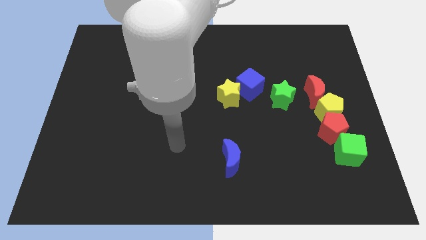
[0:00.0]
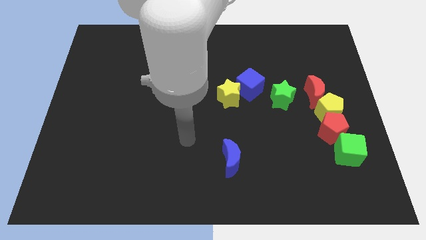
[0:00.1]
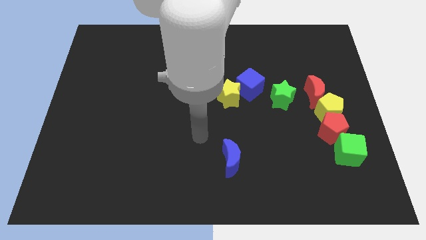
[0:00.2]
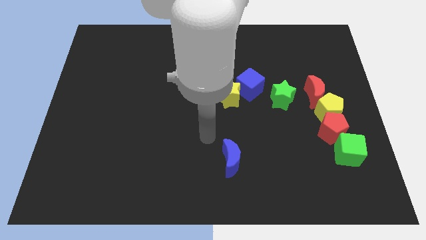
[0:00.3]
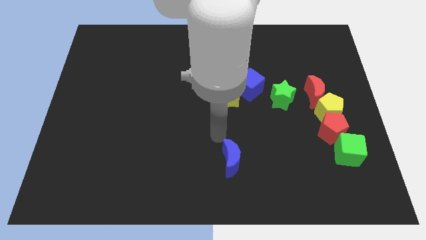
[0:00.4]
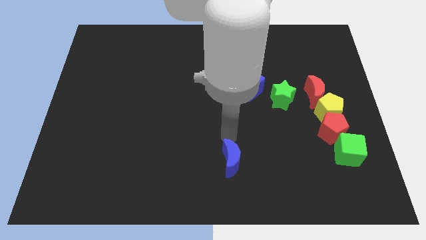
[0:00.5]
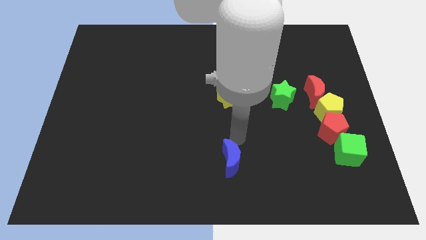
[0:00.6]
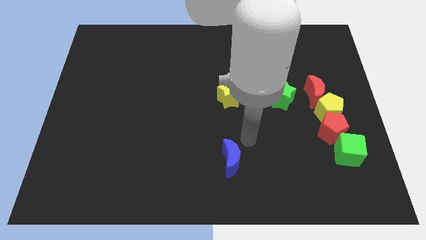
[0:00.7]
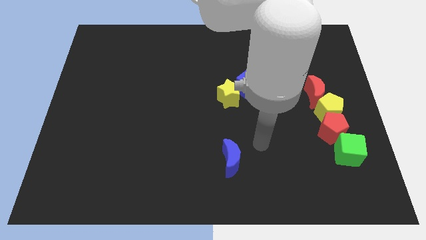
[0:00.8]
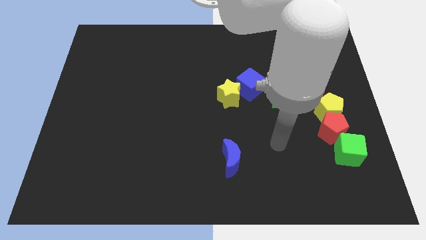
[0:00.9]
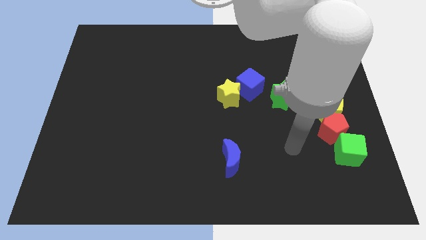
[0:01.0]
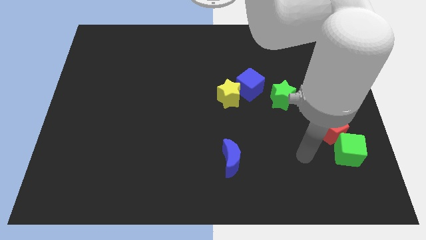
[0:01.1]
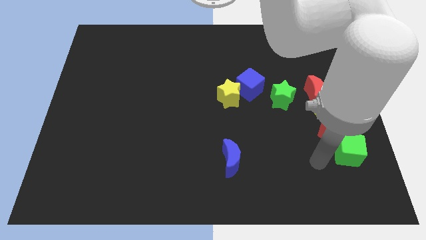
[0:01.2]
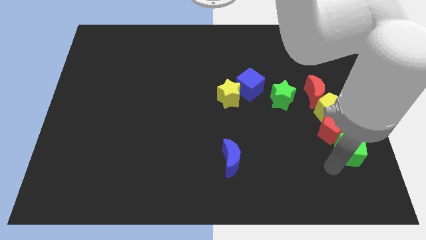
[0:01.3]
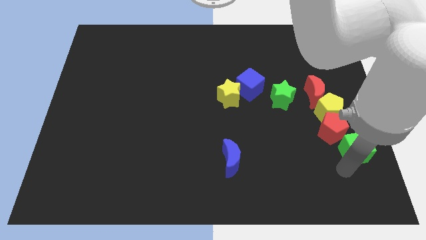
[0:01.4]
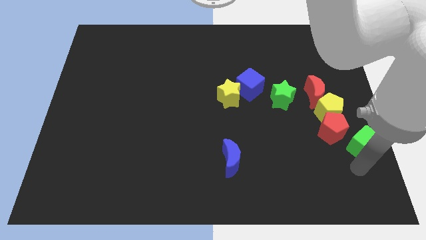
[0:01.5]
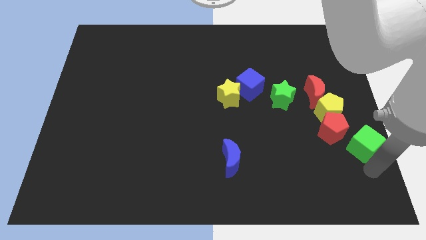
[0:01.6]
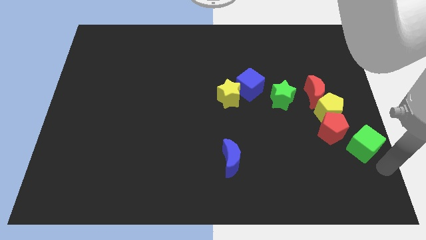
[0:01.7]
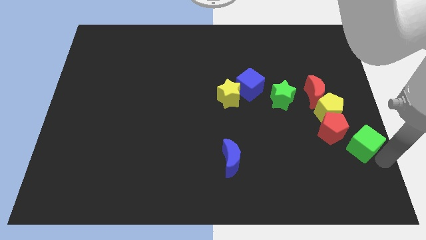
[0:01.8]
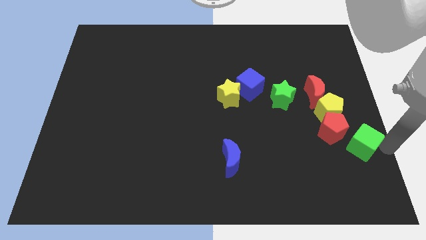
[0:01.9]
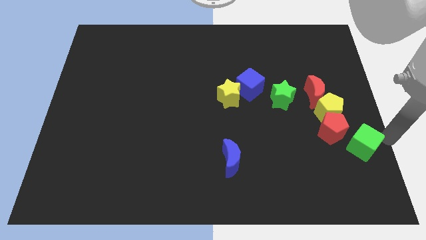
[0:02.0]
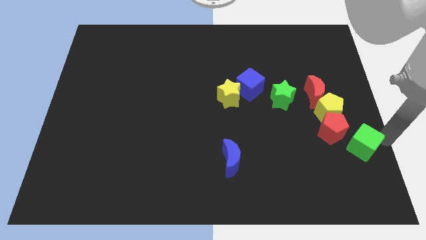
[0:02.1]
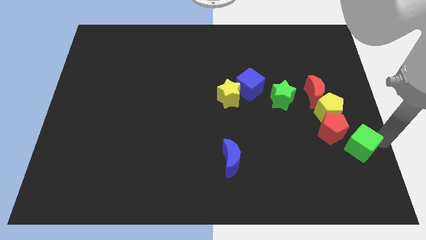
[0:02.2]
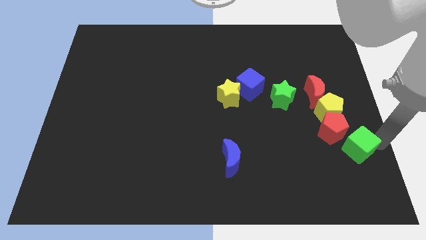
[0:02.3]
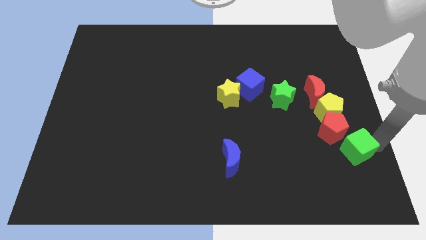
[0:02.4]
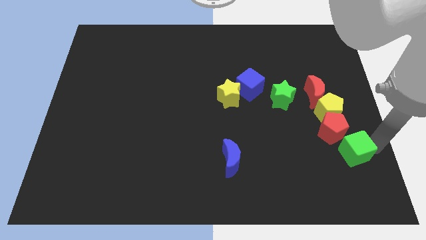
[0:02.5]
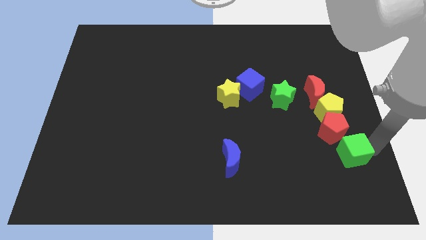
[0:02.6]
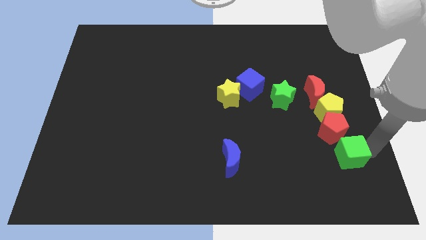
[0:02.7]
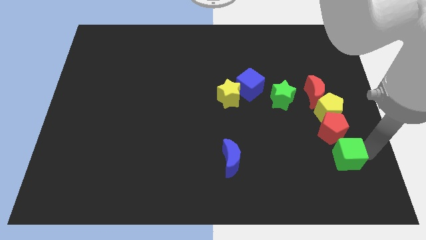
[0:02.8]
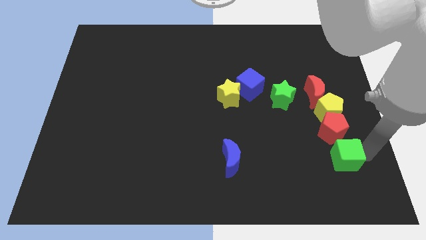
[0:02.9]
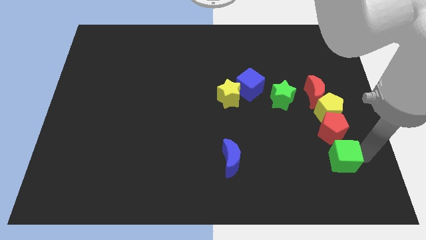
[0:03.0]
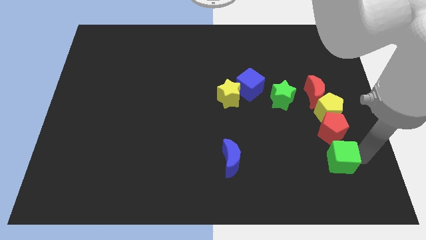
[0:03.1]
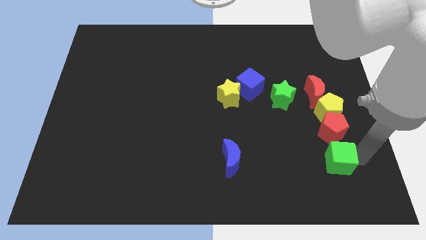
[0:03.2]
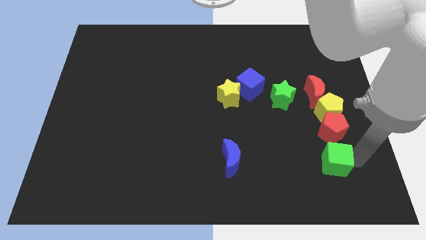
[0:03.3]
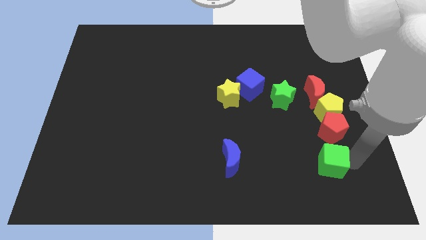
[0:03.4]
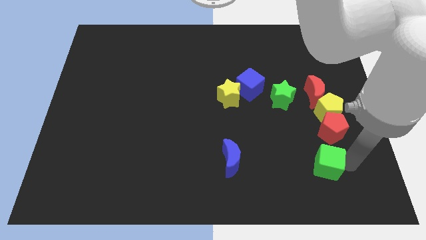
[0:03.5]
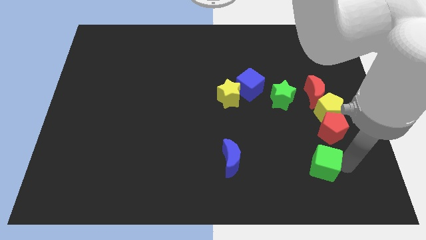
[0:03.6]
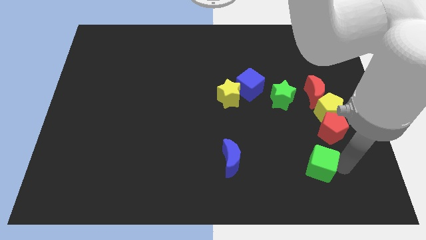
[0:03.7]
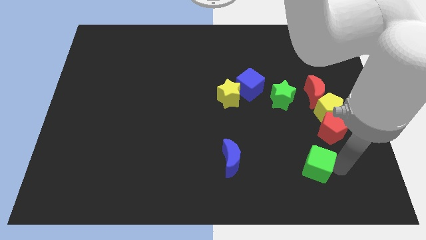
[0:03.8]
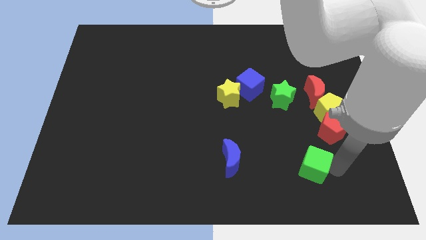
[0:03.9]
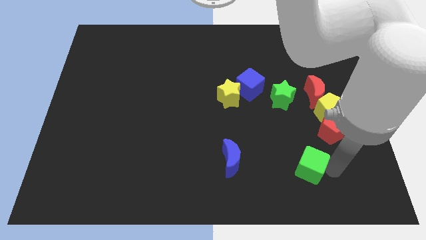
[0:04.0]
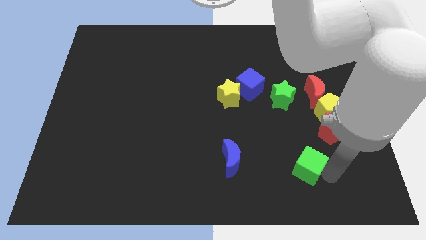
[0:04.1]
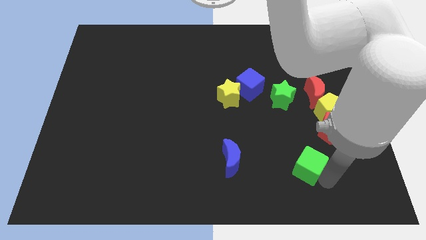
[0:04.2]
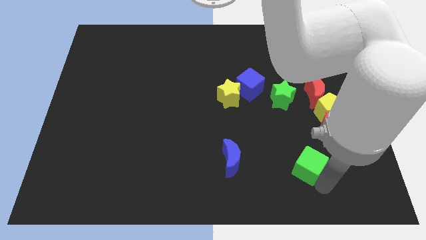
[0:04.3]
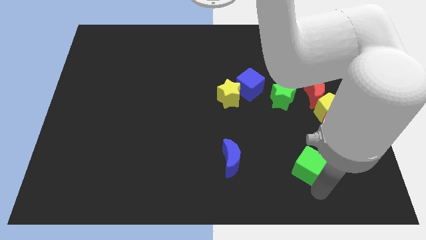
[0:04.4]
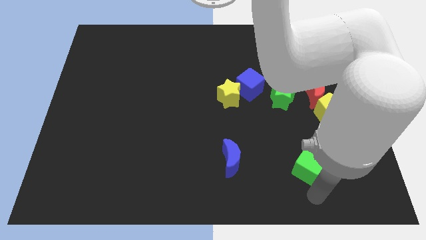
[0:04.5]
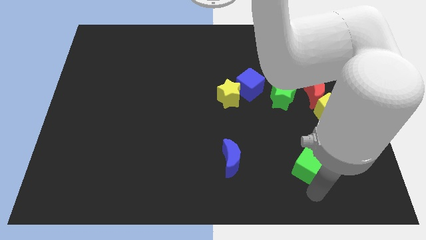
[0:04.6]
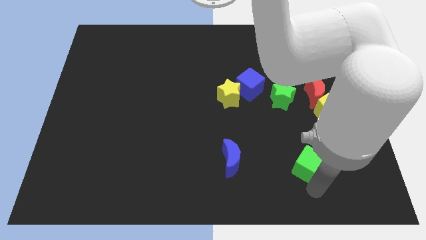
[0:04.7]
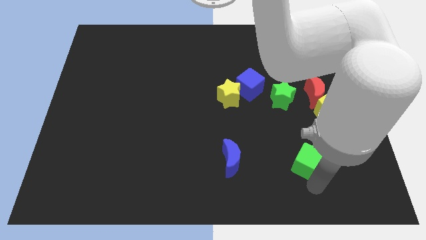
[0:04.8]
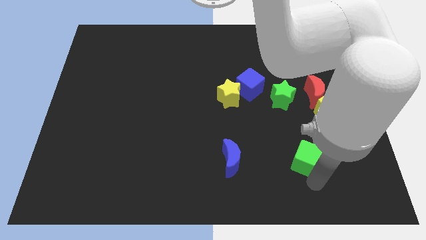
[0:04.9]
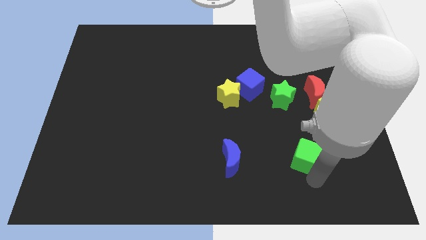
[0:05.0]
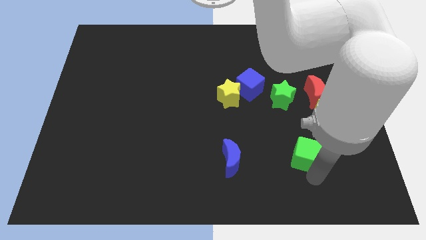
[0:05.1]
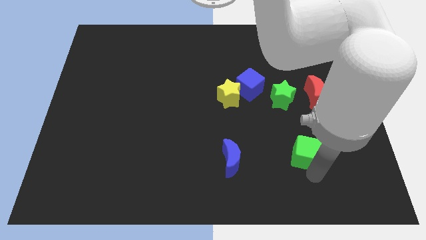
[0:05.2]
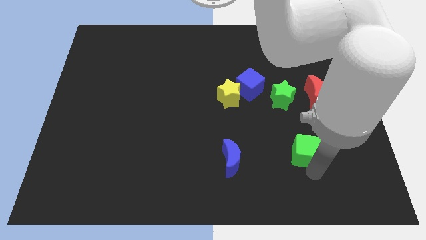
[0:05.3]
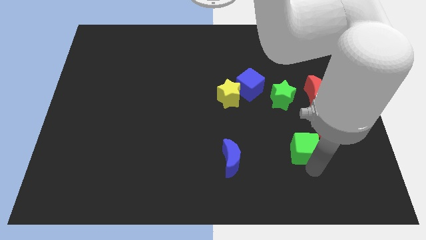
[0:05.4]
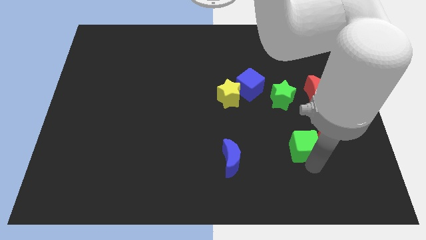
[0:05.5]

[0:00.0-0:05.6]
move the green cube just left of the red pentagon

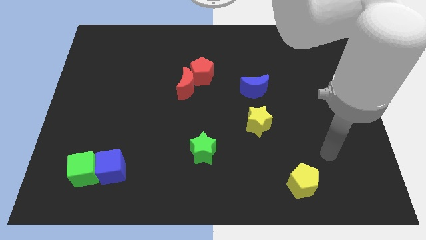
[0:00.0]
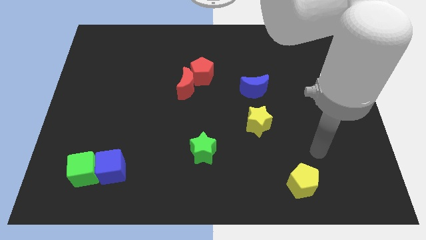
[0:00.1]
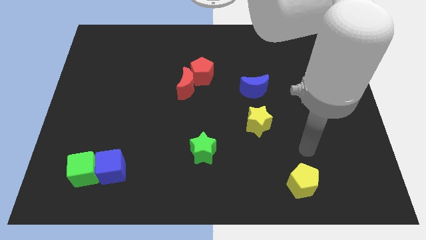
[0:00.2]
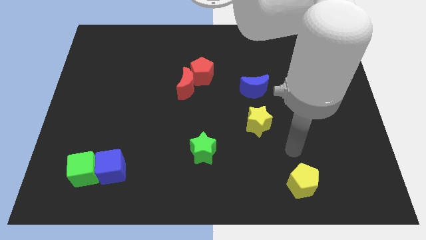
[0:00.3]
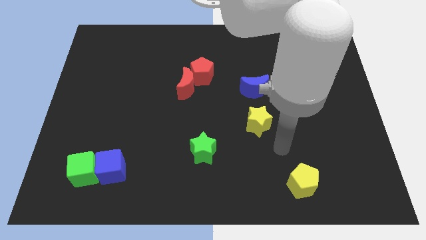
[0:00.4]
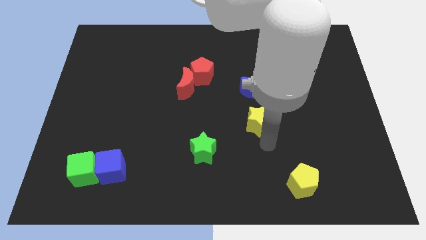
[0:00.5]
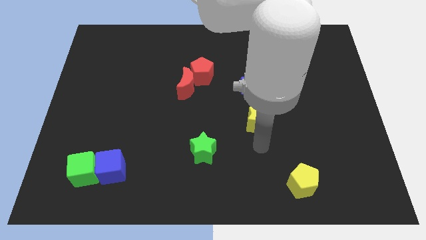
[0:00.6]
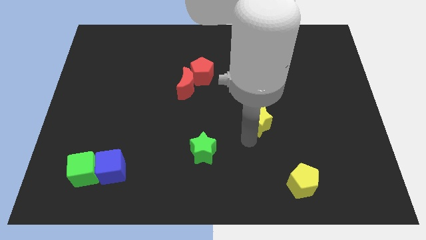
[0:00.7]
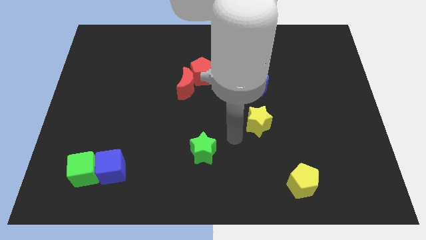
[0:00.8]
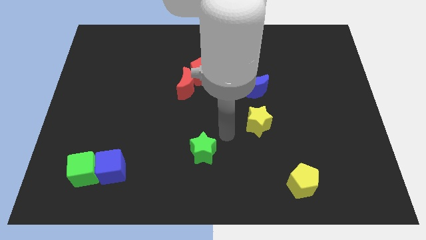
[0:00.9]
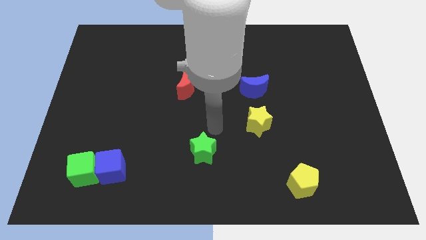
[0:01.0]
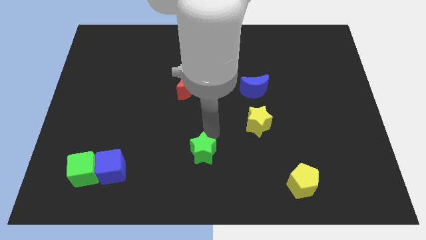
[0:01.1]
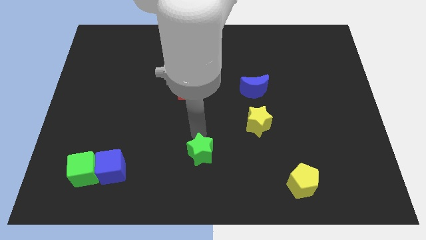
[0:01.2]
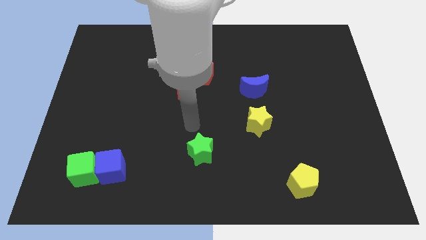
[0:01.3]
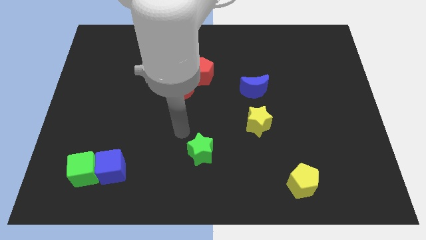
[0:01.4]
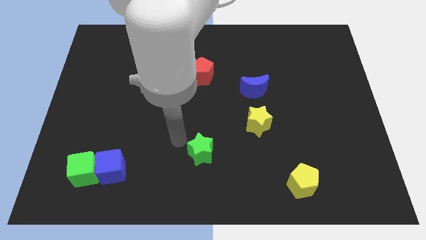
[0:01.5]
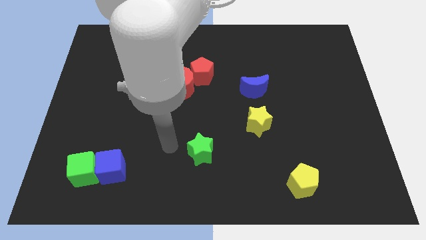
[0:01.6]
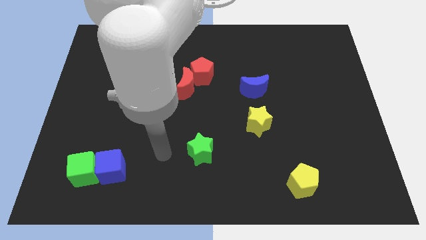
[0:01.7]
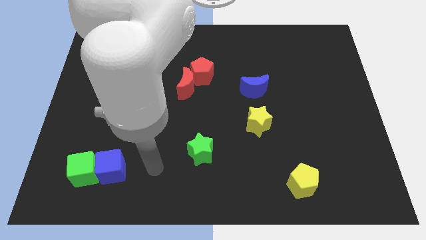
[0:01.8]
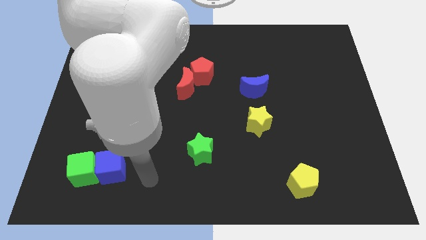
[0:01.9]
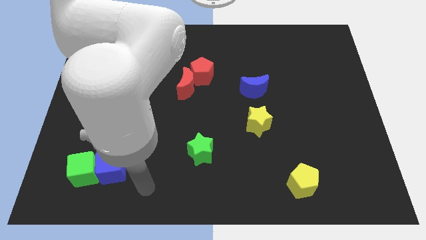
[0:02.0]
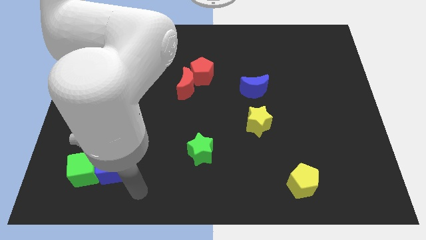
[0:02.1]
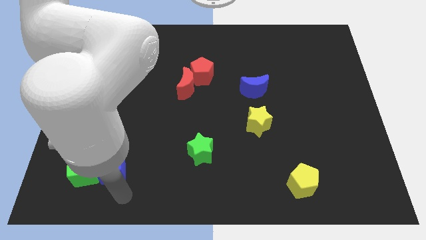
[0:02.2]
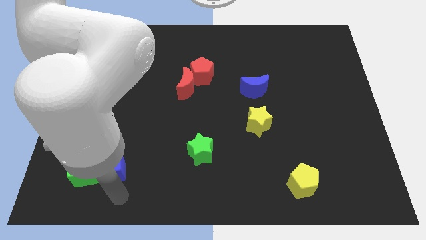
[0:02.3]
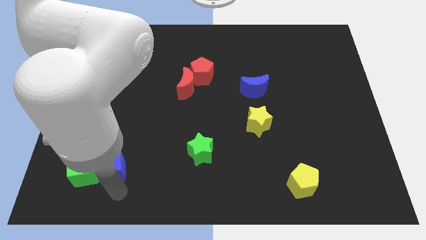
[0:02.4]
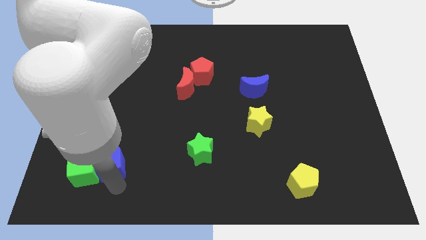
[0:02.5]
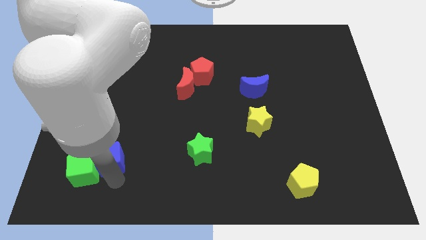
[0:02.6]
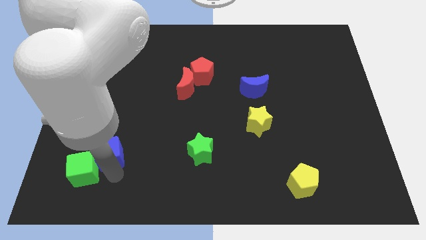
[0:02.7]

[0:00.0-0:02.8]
put the blue cube to the top side of the green cube
